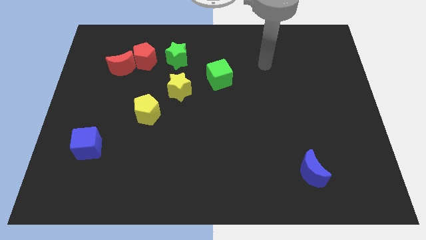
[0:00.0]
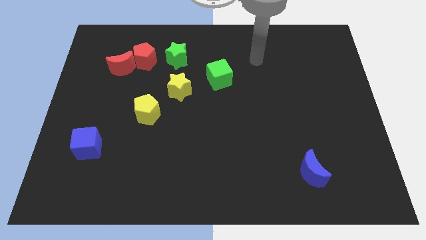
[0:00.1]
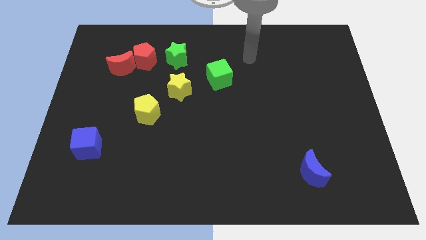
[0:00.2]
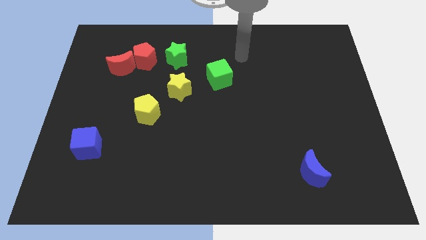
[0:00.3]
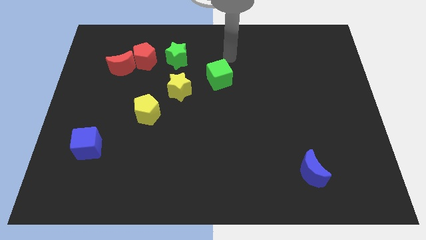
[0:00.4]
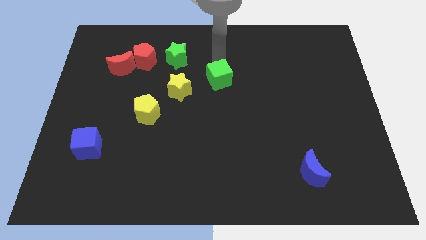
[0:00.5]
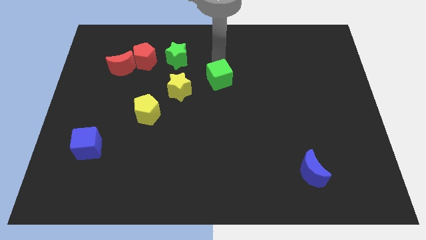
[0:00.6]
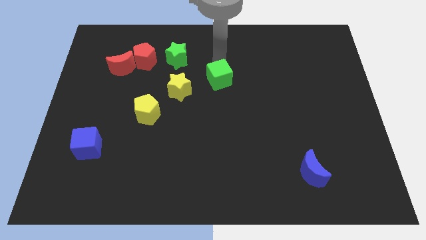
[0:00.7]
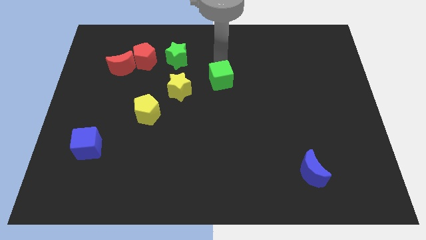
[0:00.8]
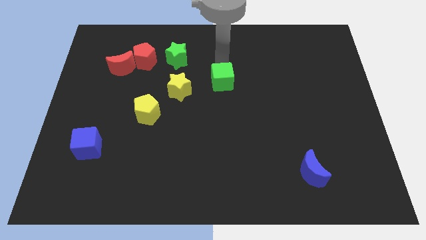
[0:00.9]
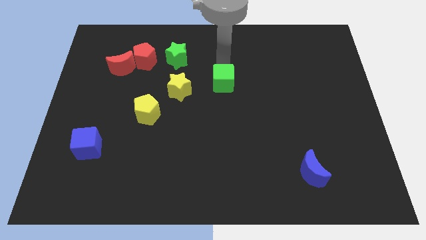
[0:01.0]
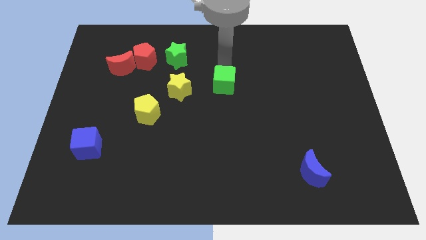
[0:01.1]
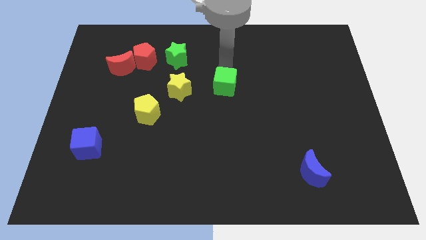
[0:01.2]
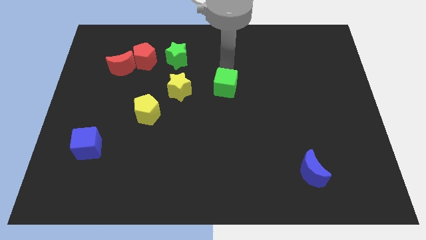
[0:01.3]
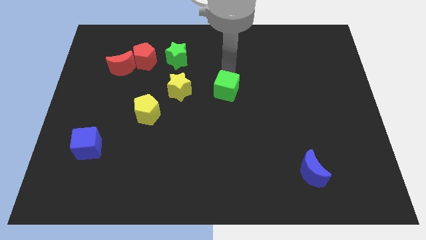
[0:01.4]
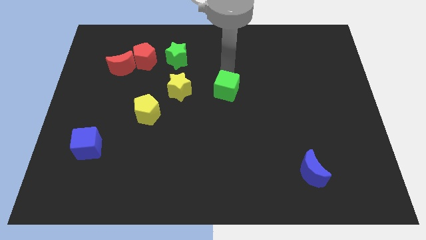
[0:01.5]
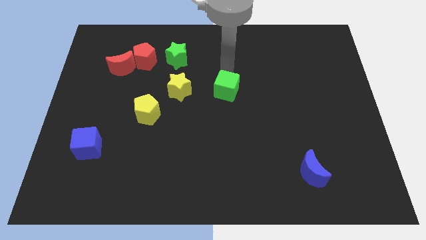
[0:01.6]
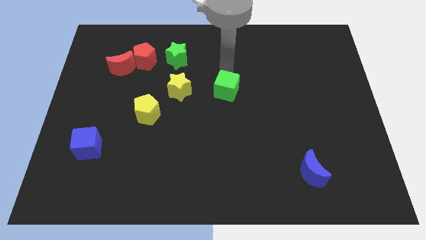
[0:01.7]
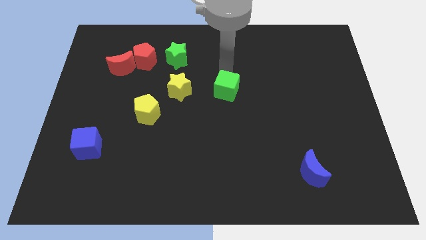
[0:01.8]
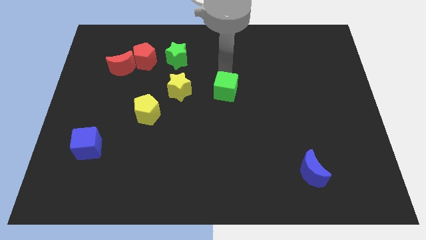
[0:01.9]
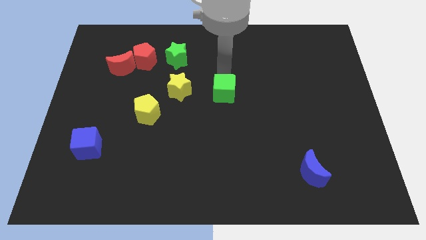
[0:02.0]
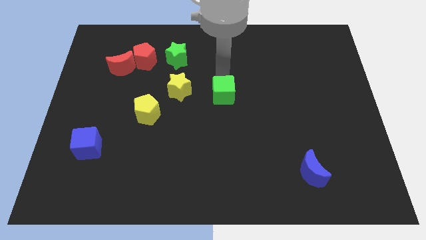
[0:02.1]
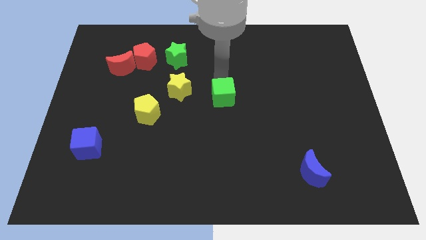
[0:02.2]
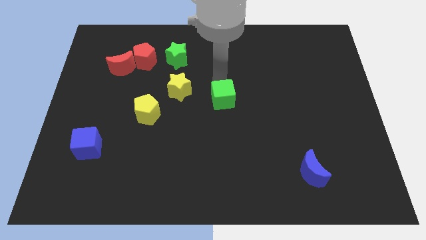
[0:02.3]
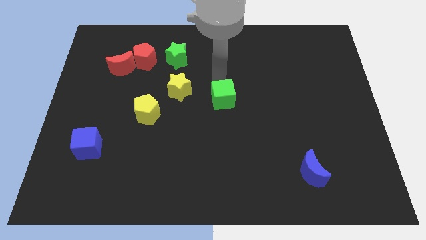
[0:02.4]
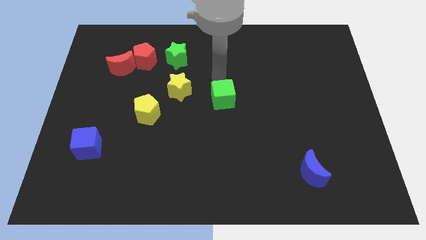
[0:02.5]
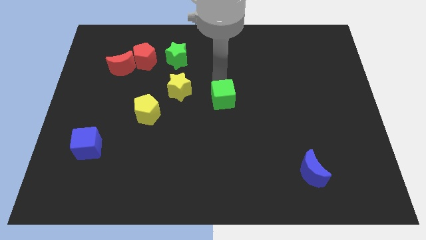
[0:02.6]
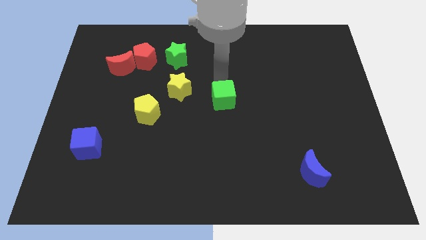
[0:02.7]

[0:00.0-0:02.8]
slide the green cube a little downwards

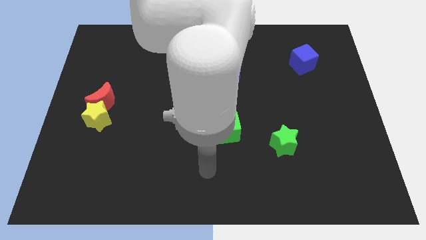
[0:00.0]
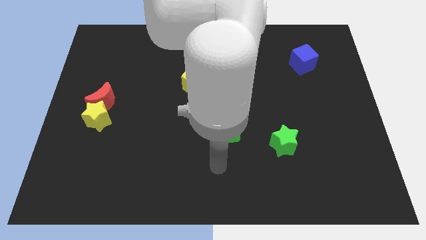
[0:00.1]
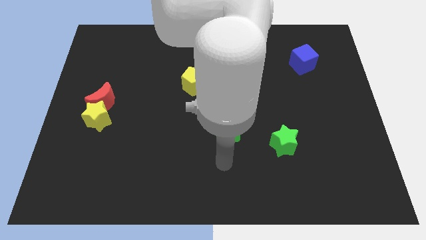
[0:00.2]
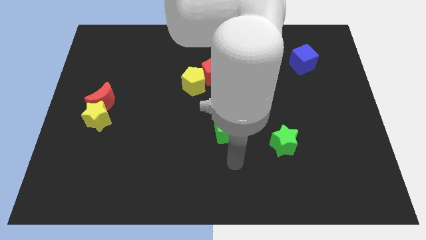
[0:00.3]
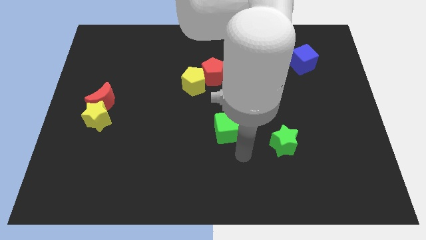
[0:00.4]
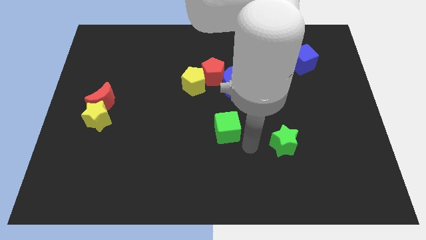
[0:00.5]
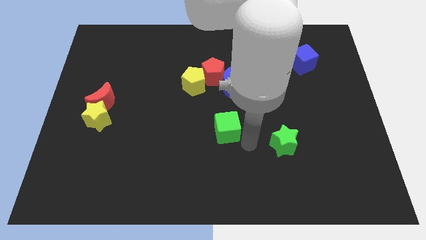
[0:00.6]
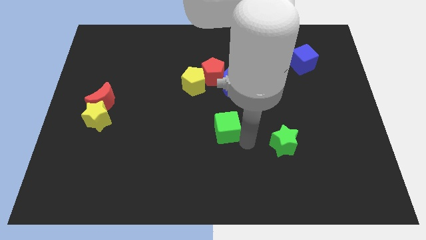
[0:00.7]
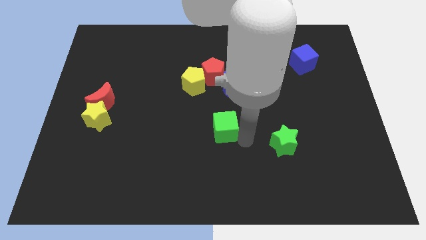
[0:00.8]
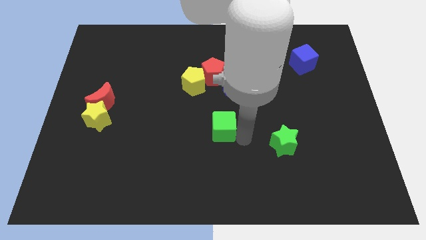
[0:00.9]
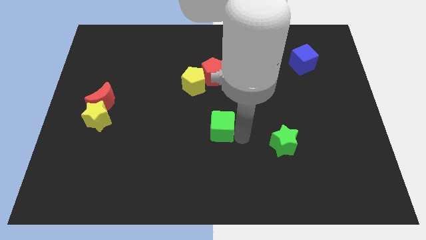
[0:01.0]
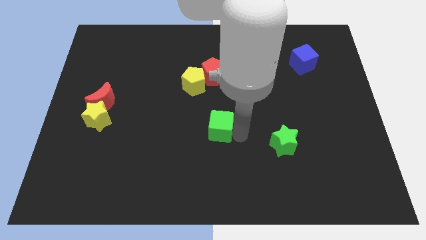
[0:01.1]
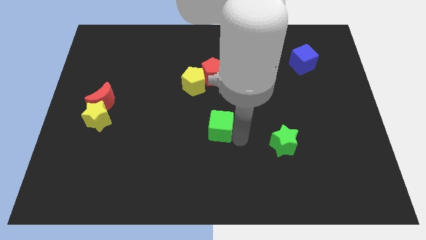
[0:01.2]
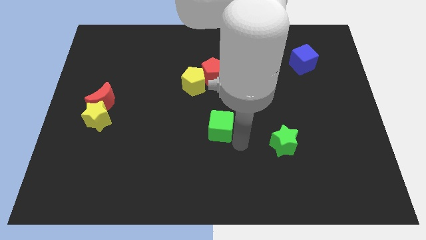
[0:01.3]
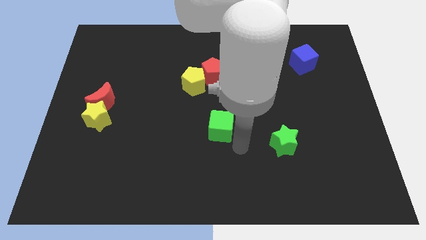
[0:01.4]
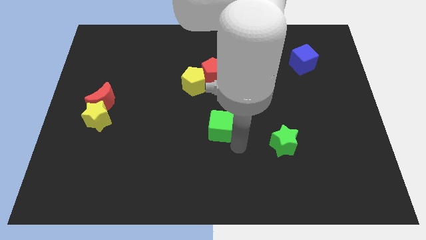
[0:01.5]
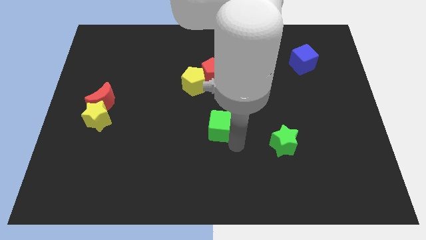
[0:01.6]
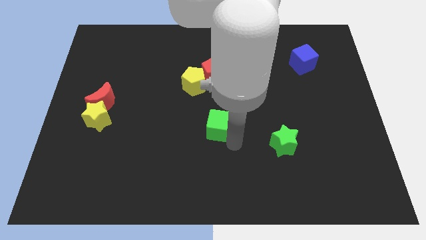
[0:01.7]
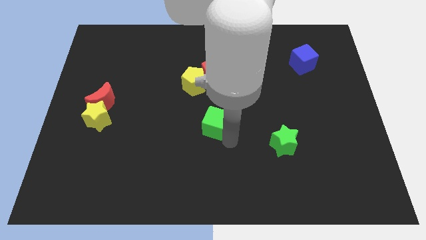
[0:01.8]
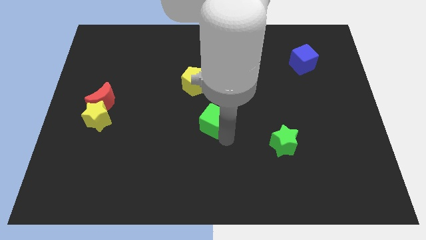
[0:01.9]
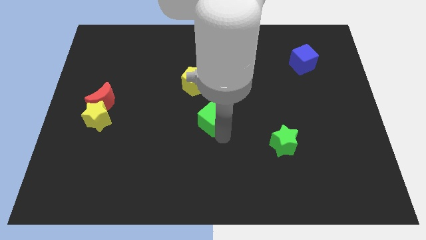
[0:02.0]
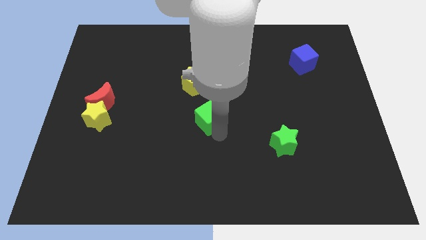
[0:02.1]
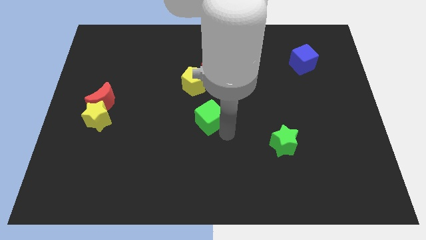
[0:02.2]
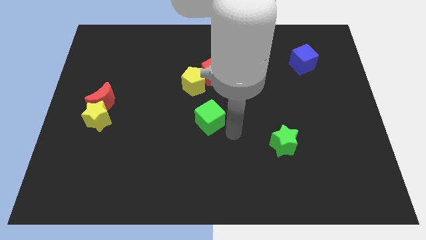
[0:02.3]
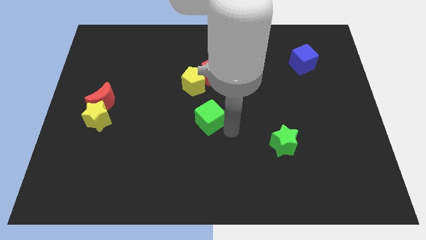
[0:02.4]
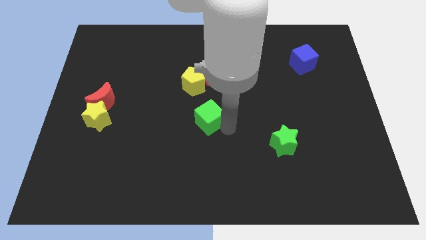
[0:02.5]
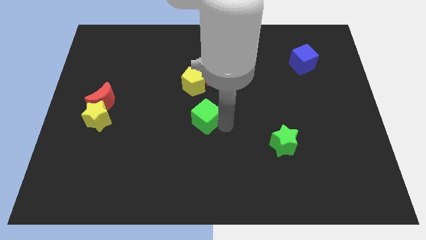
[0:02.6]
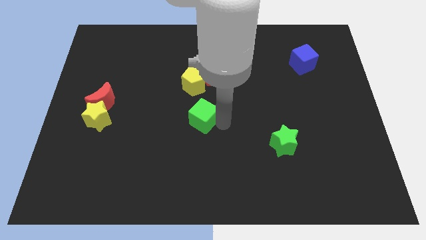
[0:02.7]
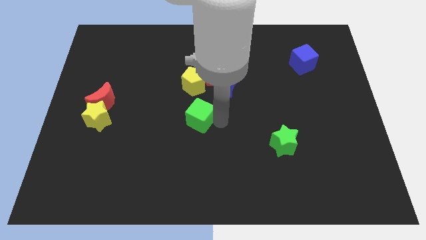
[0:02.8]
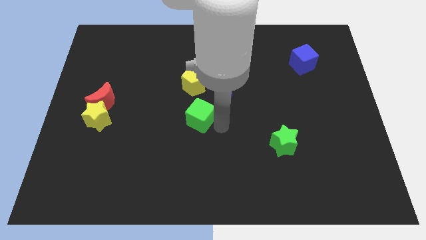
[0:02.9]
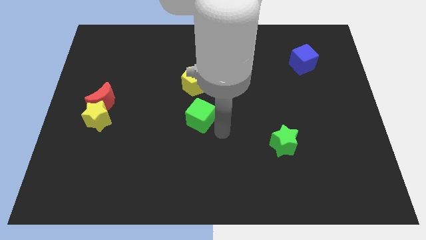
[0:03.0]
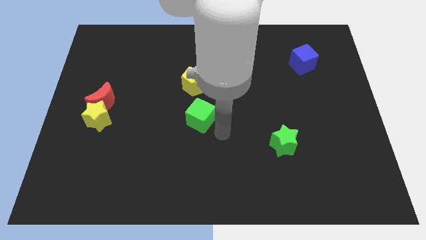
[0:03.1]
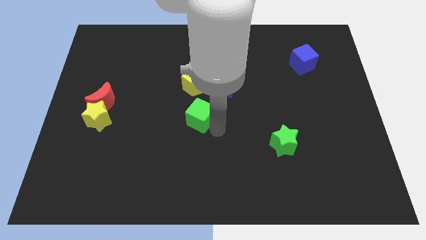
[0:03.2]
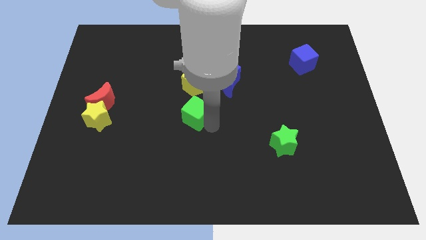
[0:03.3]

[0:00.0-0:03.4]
push the green cube up and to the left diagonally slightly

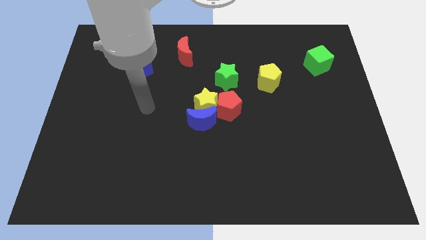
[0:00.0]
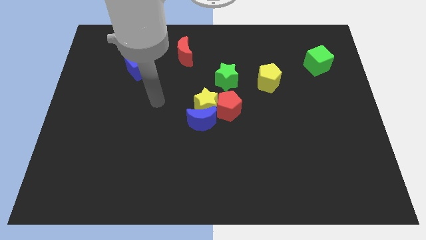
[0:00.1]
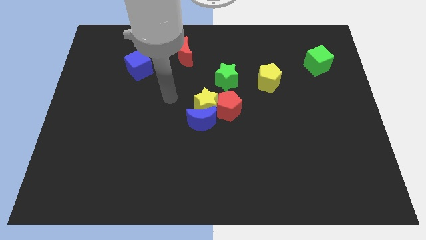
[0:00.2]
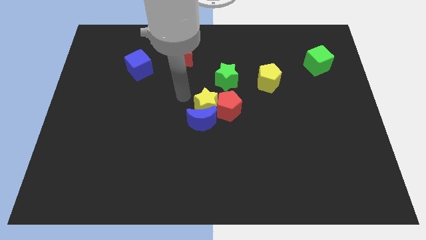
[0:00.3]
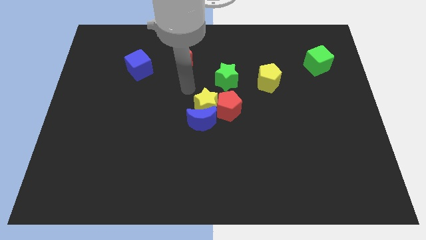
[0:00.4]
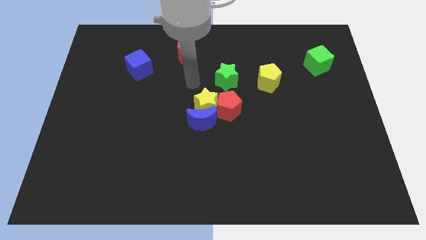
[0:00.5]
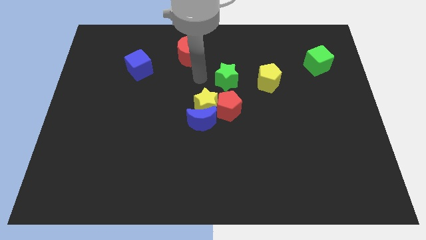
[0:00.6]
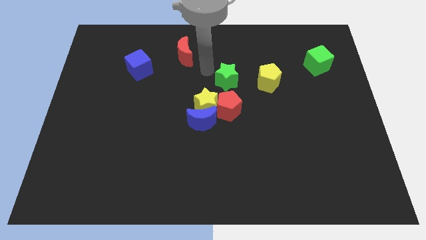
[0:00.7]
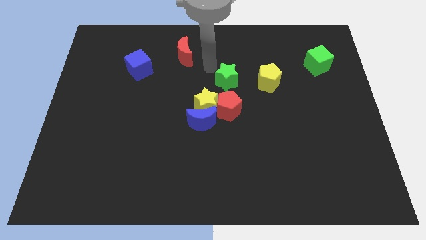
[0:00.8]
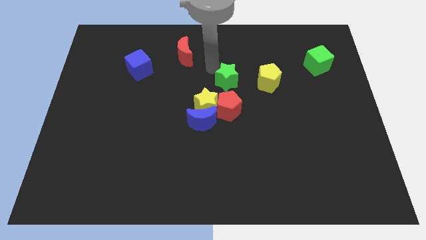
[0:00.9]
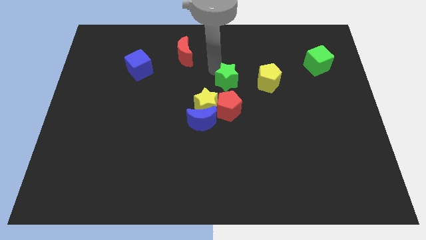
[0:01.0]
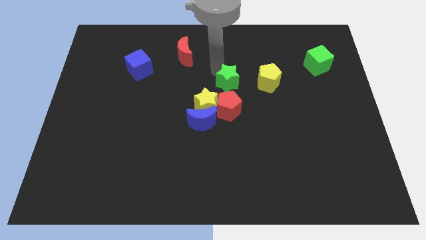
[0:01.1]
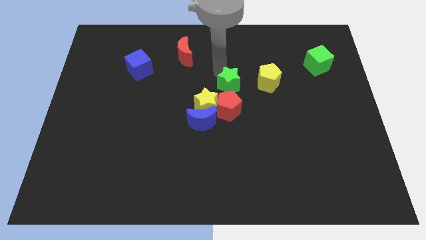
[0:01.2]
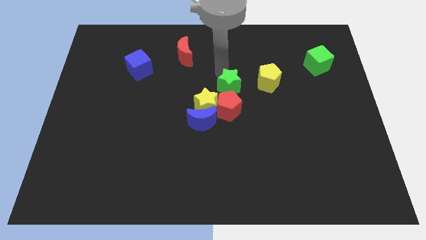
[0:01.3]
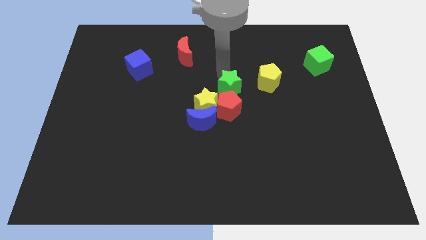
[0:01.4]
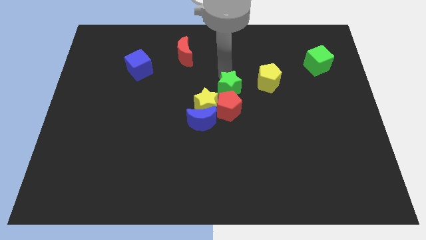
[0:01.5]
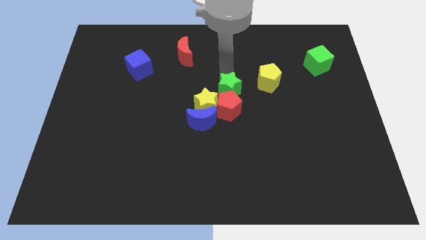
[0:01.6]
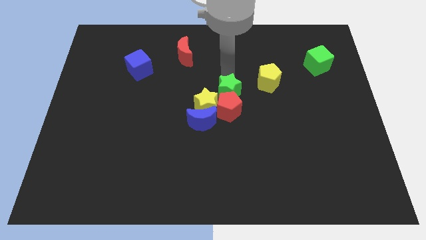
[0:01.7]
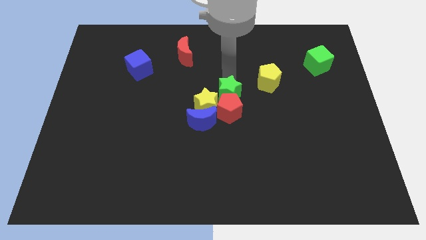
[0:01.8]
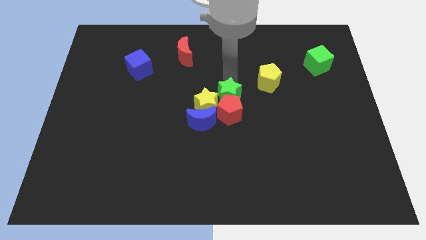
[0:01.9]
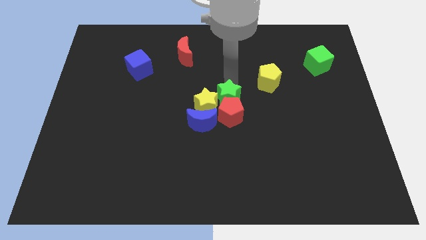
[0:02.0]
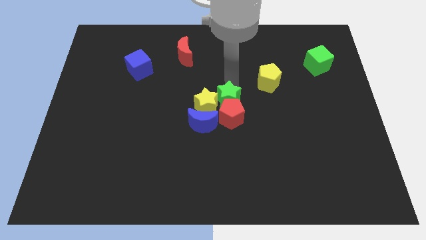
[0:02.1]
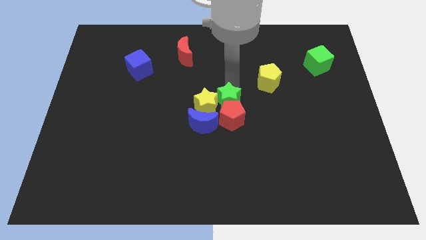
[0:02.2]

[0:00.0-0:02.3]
move the green star downwards a bit
